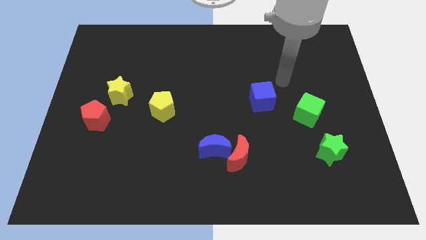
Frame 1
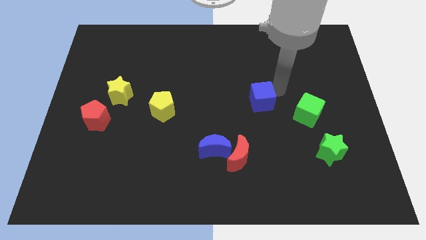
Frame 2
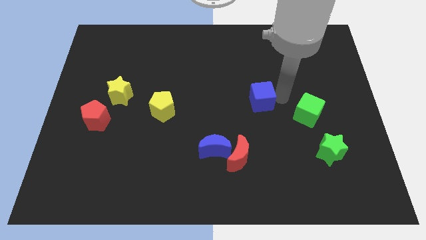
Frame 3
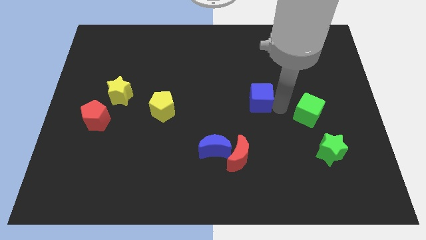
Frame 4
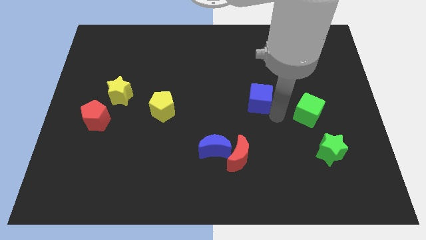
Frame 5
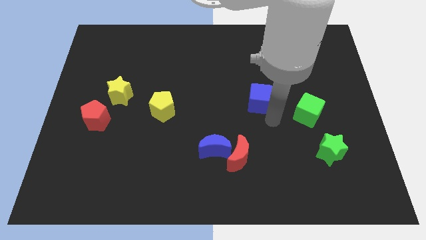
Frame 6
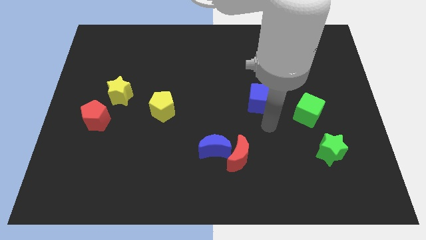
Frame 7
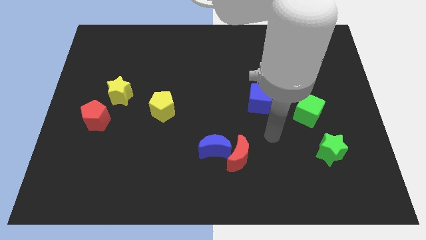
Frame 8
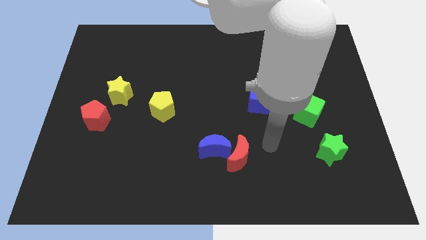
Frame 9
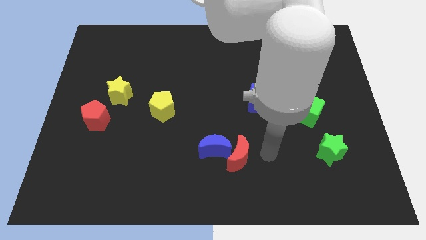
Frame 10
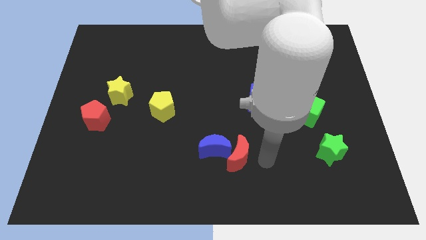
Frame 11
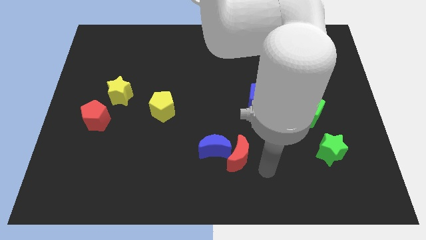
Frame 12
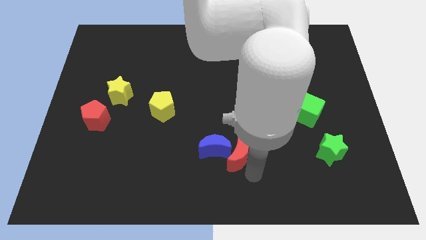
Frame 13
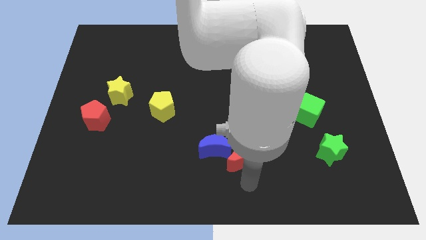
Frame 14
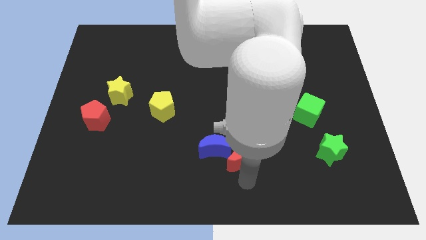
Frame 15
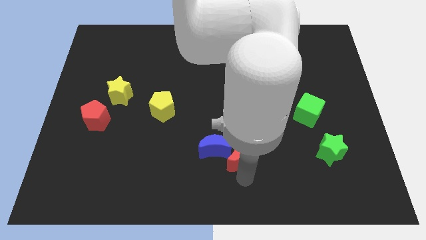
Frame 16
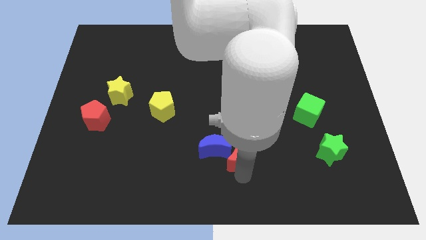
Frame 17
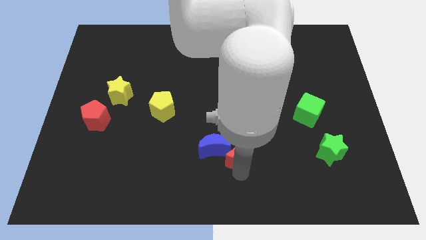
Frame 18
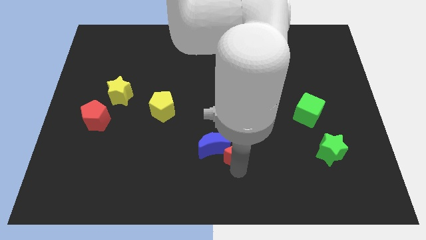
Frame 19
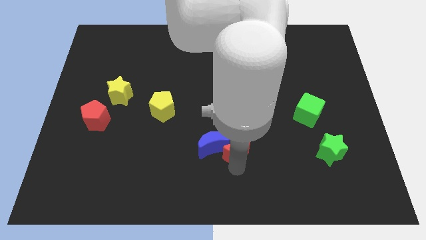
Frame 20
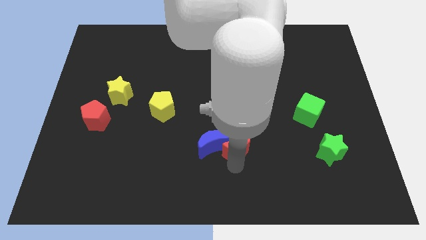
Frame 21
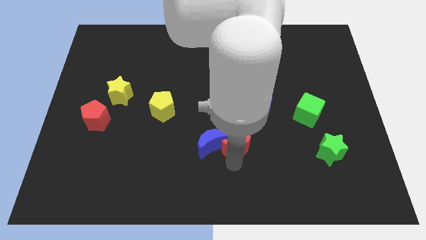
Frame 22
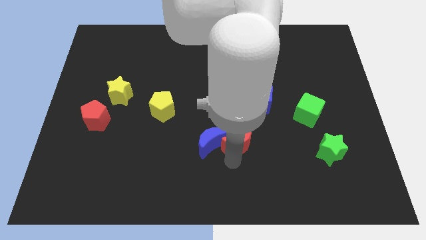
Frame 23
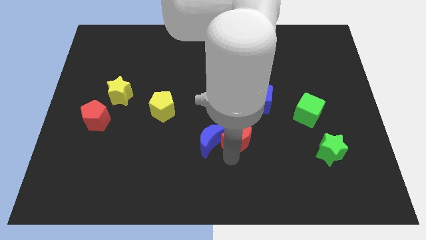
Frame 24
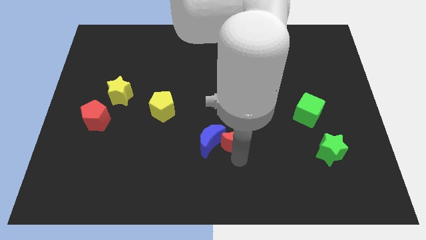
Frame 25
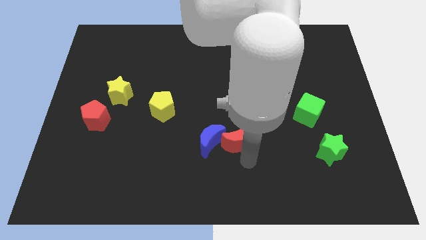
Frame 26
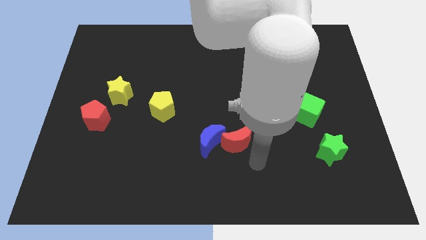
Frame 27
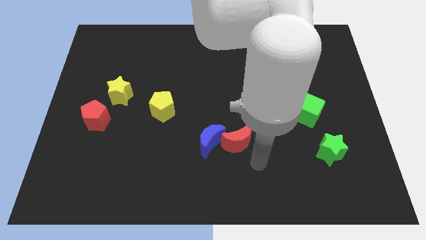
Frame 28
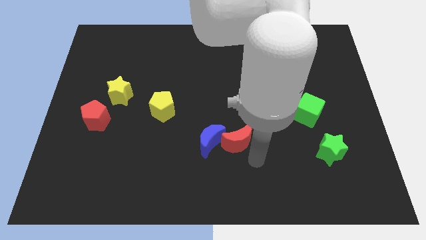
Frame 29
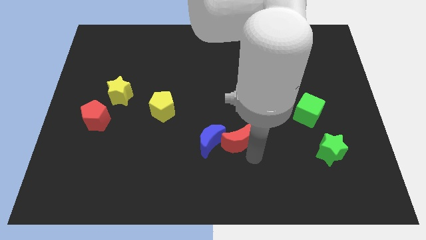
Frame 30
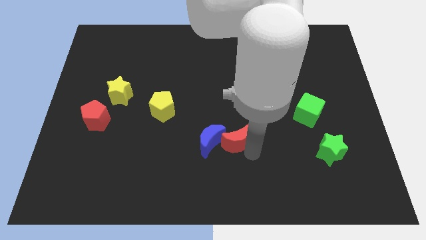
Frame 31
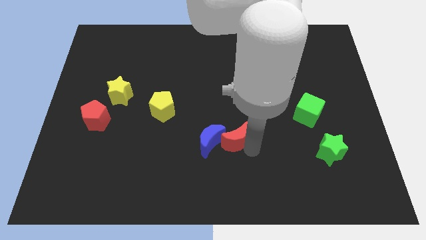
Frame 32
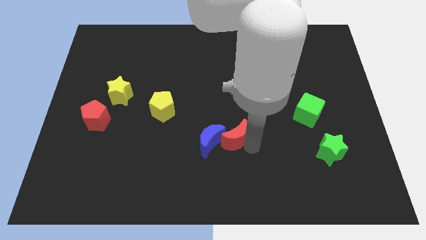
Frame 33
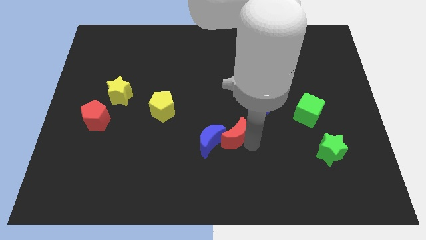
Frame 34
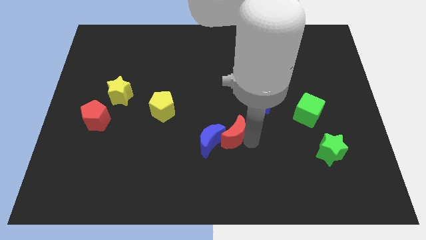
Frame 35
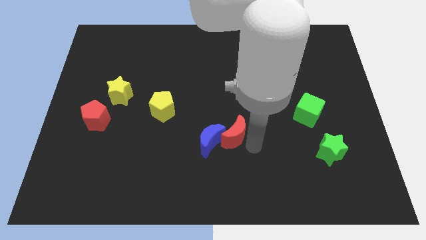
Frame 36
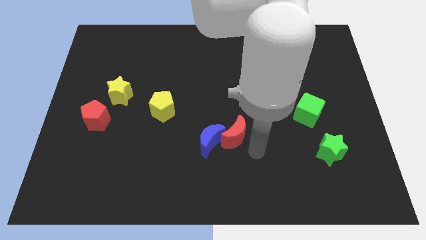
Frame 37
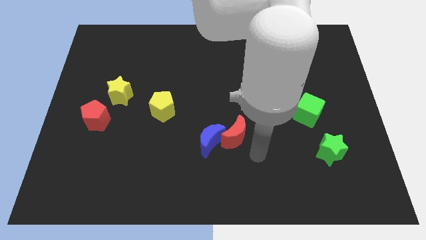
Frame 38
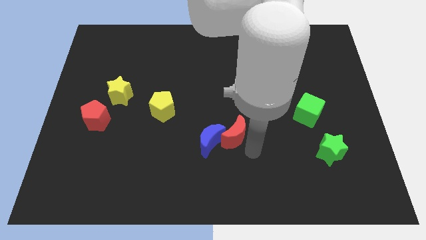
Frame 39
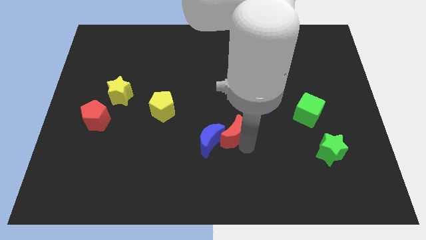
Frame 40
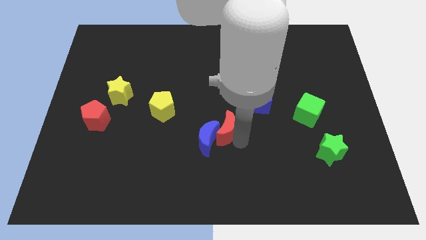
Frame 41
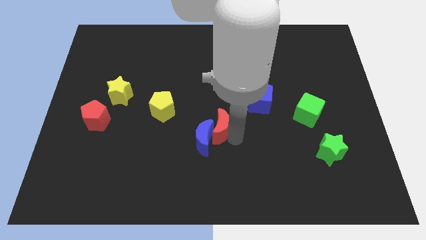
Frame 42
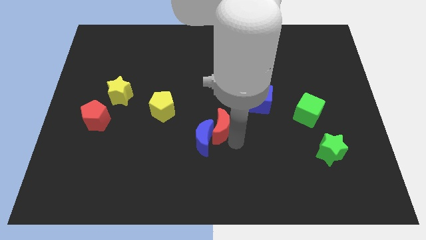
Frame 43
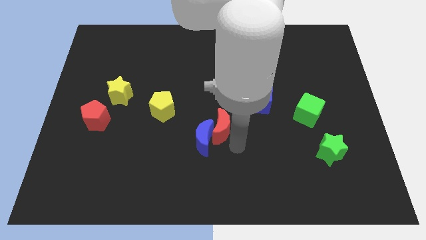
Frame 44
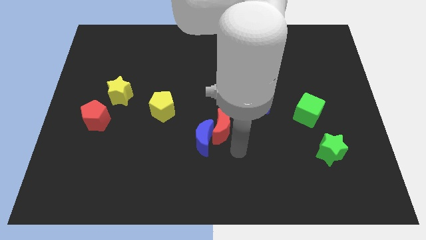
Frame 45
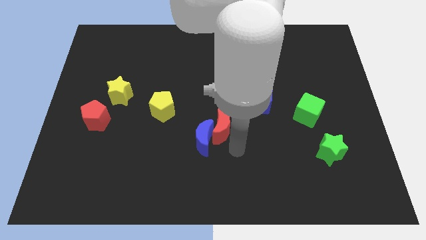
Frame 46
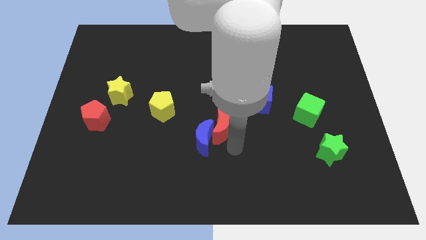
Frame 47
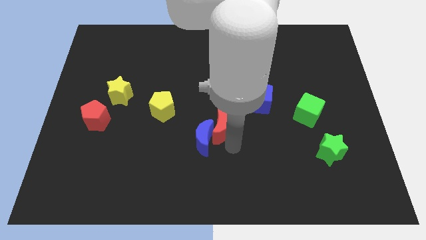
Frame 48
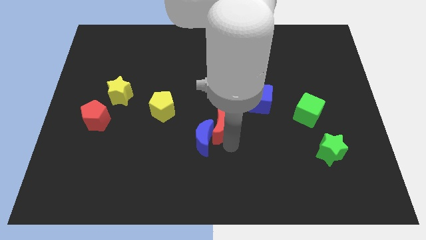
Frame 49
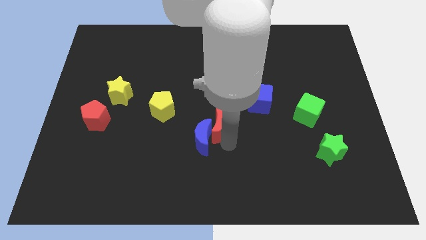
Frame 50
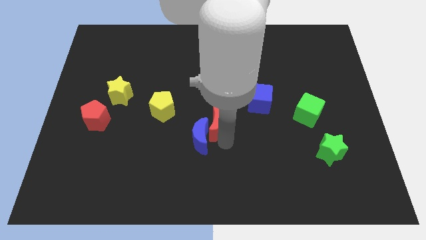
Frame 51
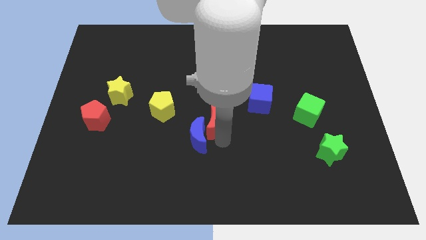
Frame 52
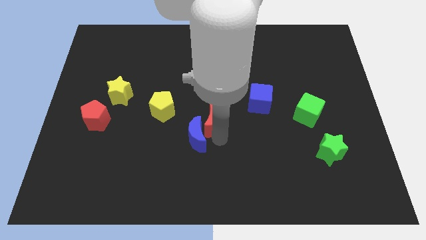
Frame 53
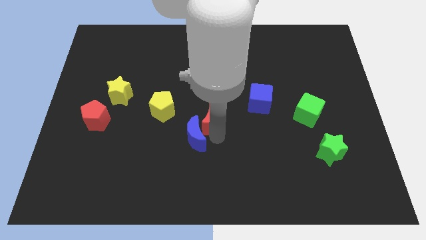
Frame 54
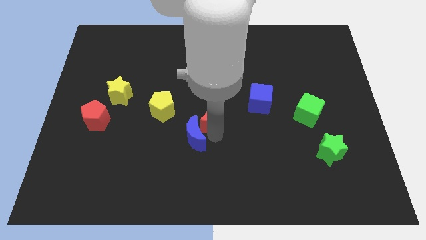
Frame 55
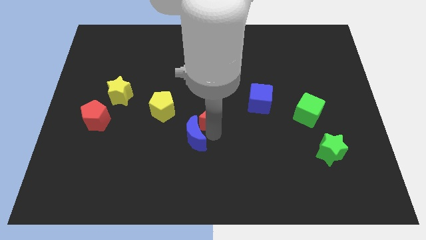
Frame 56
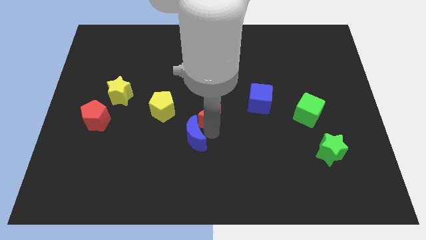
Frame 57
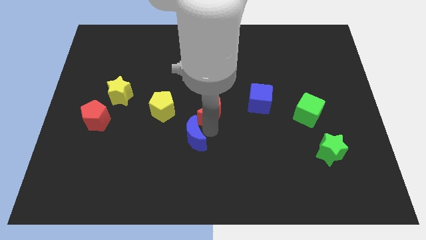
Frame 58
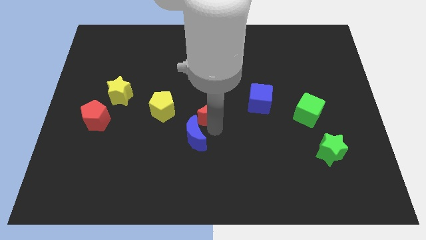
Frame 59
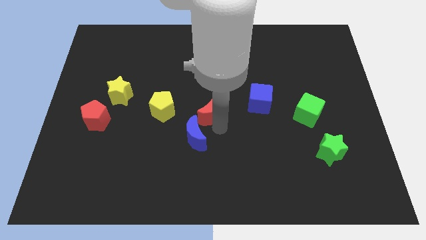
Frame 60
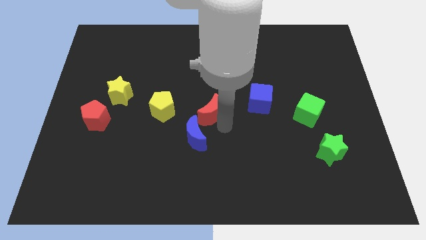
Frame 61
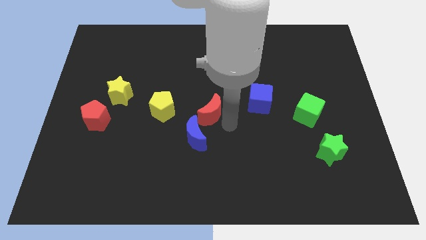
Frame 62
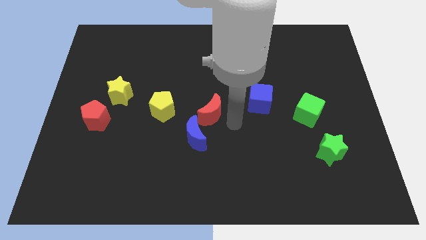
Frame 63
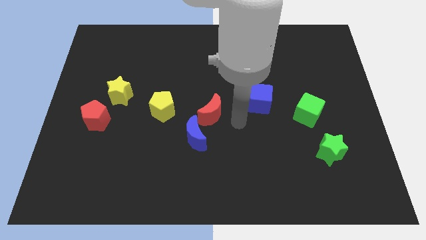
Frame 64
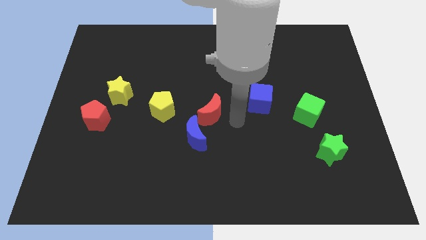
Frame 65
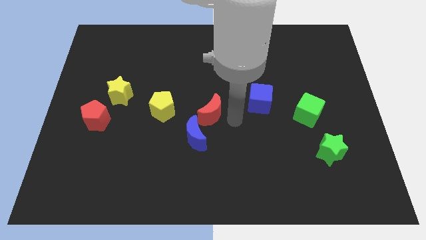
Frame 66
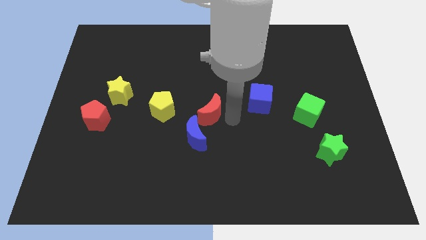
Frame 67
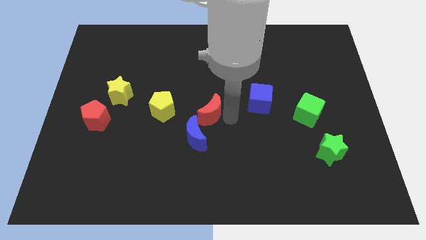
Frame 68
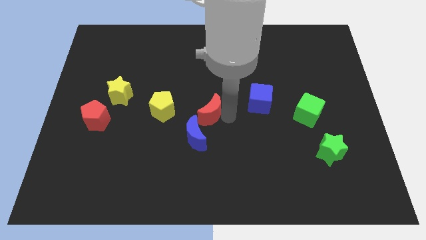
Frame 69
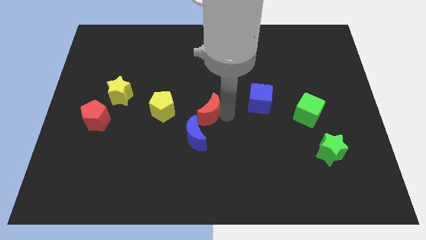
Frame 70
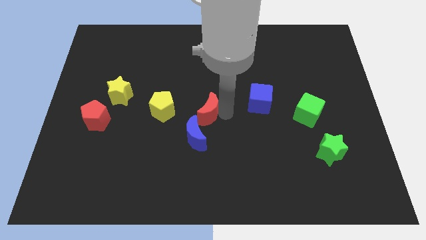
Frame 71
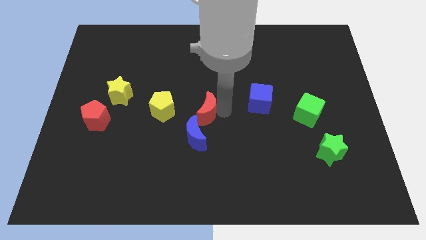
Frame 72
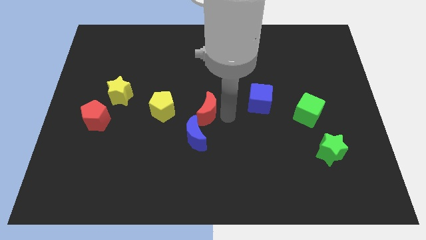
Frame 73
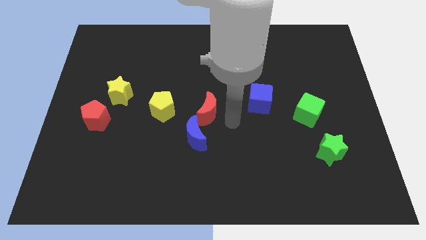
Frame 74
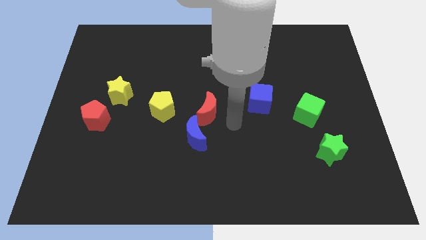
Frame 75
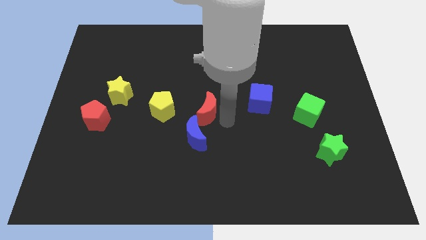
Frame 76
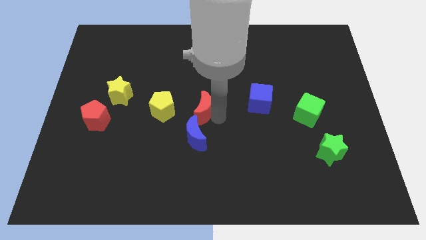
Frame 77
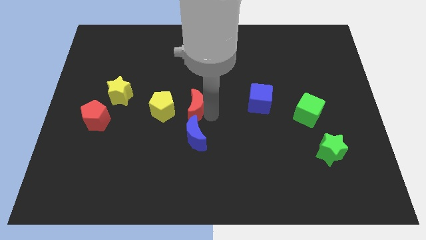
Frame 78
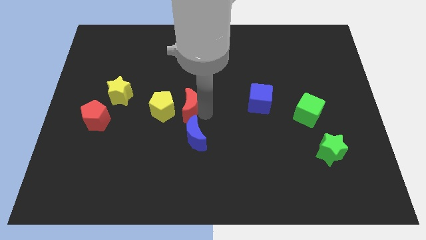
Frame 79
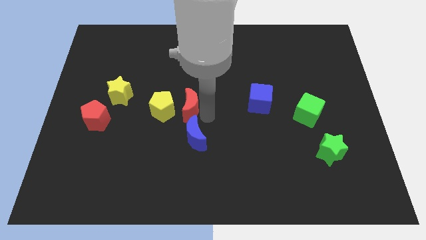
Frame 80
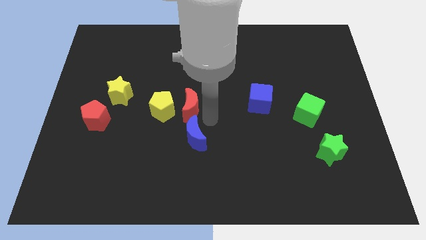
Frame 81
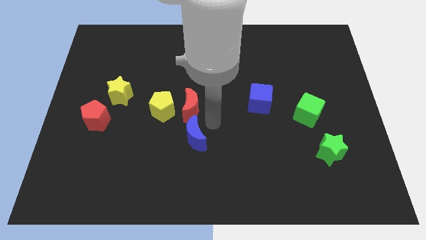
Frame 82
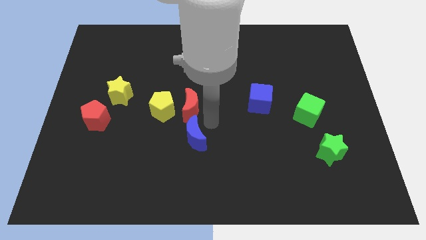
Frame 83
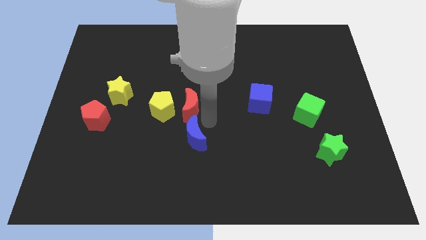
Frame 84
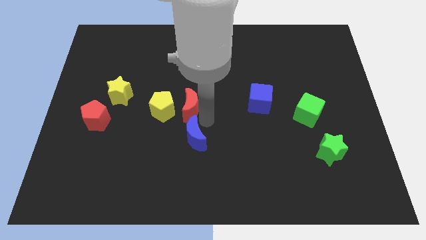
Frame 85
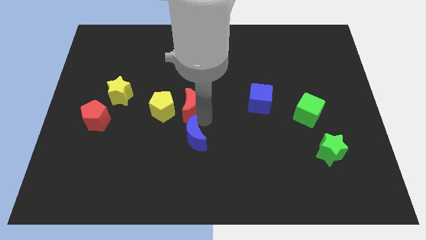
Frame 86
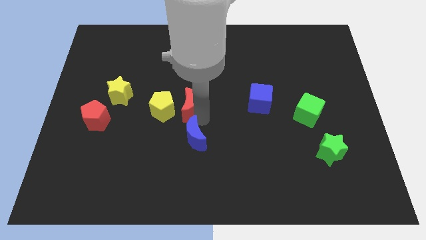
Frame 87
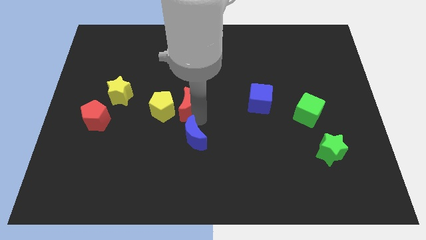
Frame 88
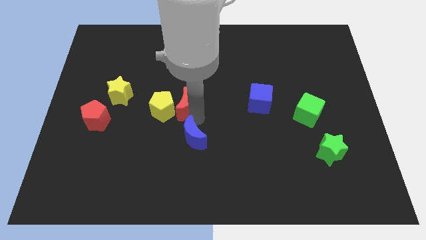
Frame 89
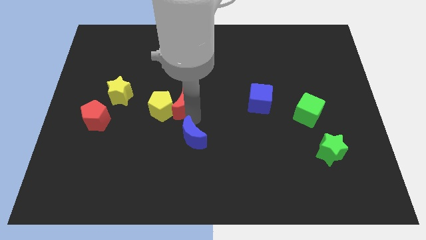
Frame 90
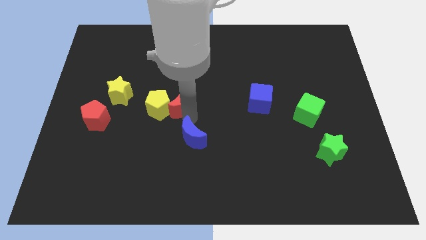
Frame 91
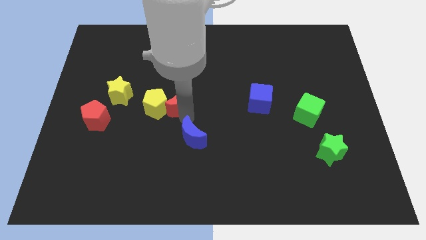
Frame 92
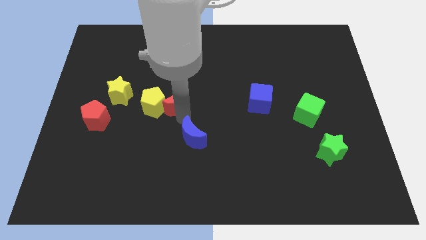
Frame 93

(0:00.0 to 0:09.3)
slide the red moon upwards and to the left diagonally
